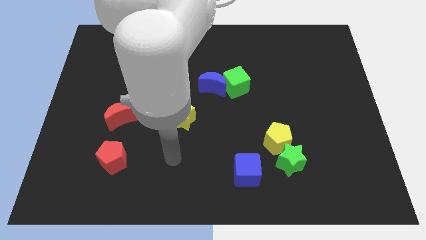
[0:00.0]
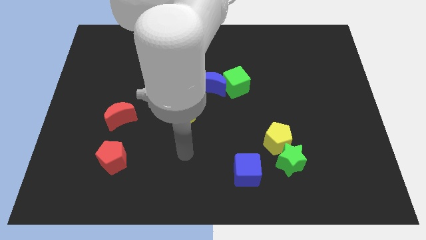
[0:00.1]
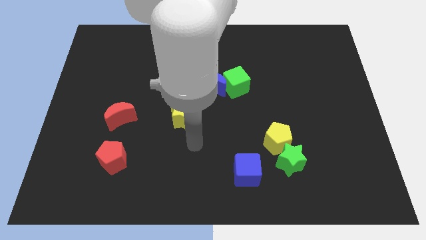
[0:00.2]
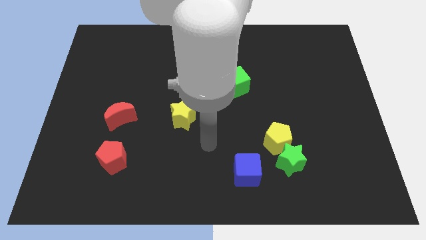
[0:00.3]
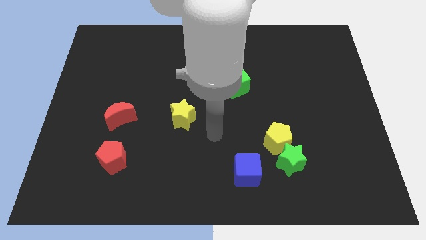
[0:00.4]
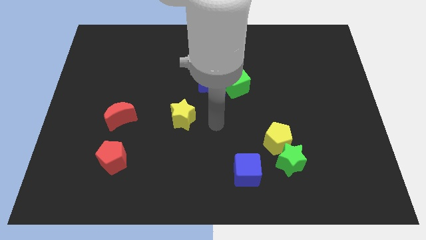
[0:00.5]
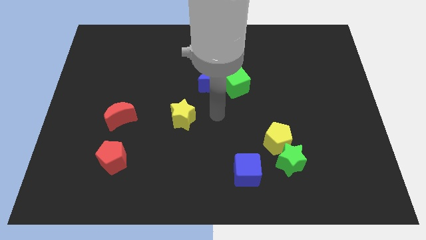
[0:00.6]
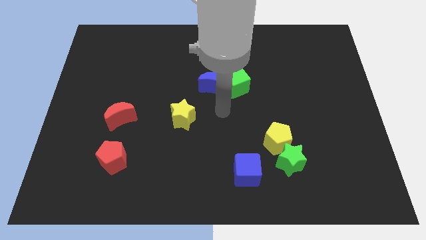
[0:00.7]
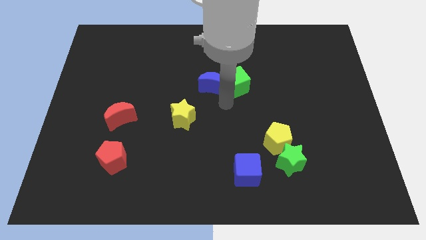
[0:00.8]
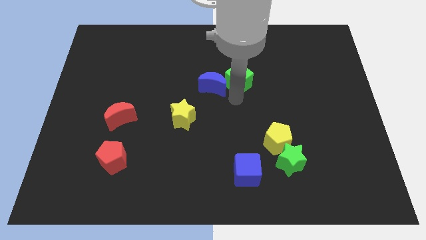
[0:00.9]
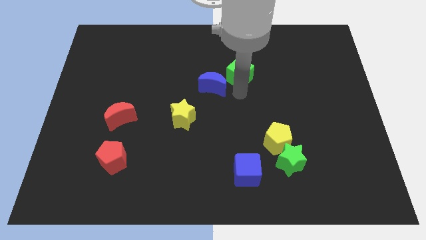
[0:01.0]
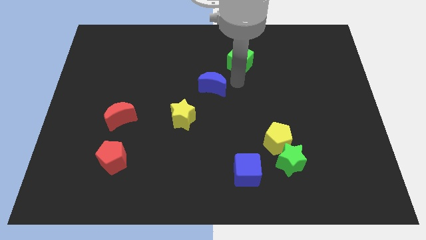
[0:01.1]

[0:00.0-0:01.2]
separate the blue moon from the green cube

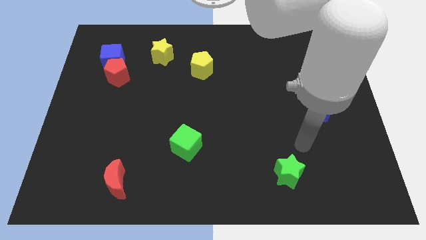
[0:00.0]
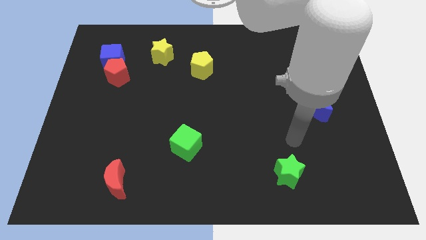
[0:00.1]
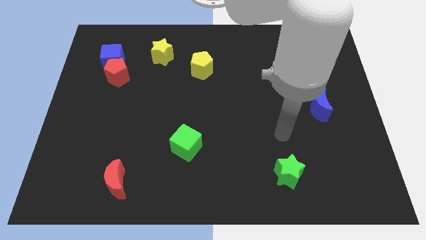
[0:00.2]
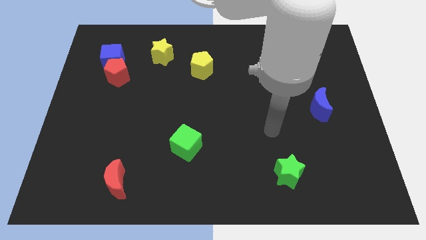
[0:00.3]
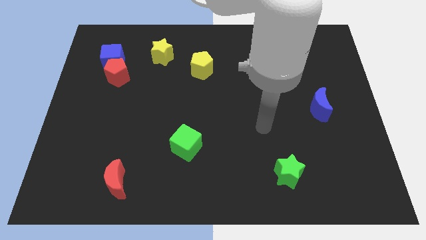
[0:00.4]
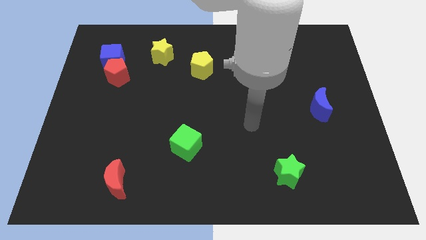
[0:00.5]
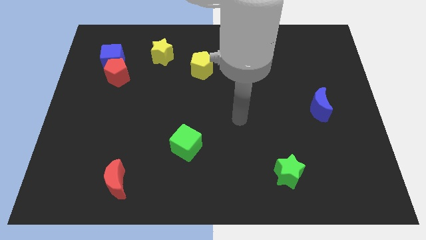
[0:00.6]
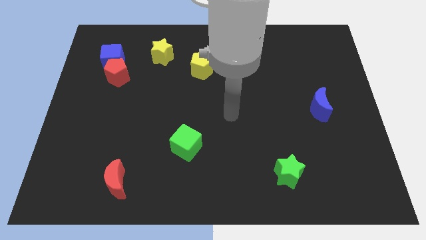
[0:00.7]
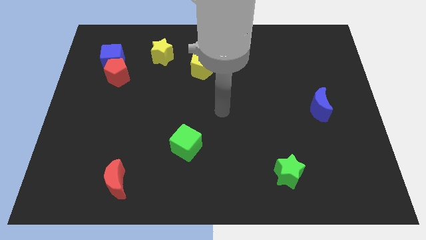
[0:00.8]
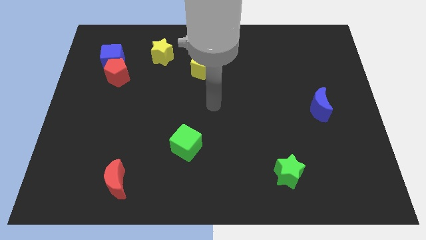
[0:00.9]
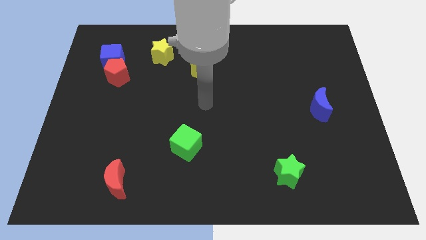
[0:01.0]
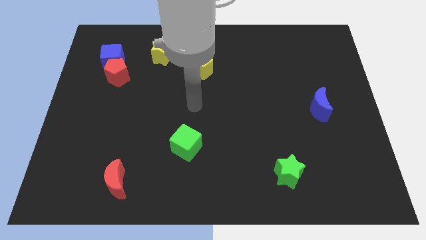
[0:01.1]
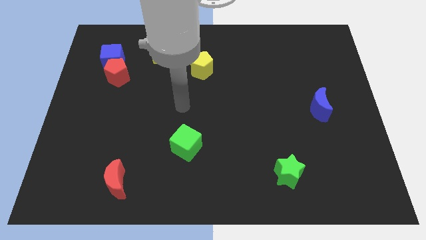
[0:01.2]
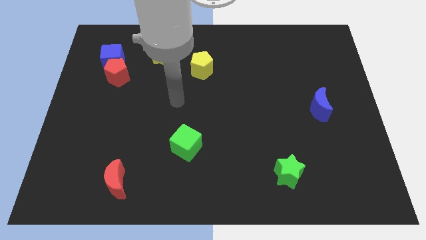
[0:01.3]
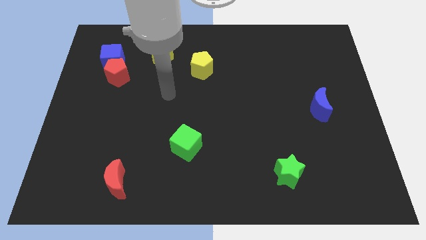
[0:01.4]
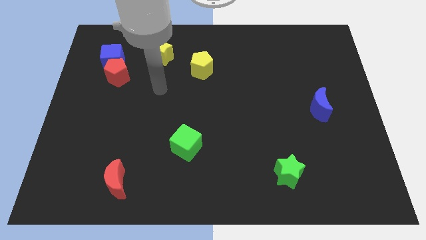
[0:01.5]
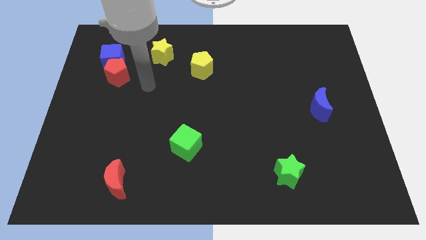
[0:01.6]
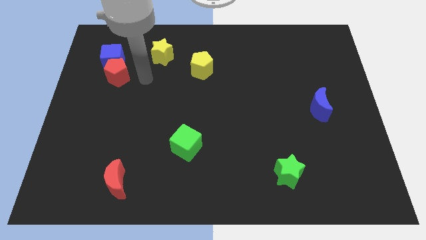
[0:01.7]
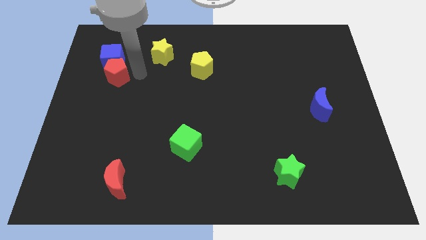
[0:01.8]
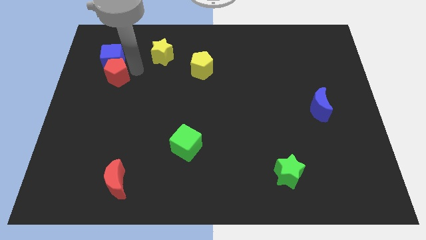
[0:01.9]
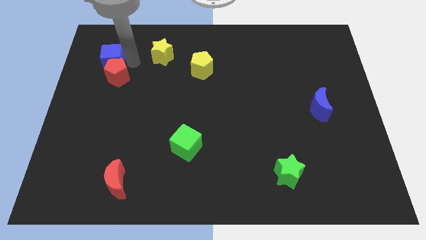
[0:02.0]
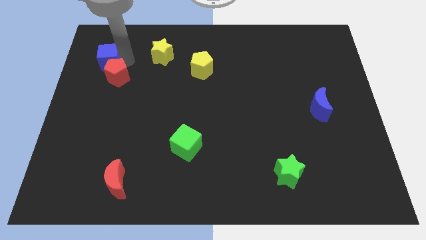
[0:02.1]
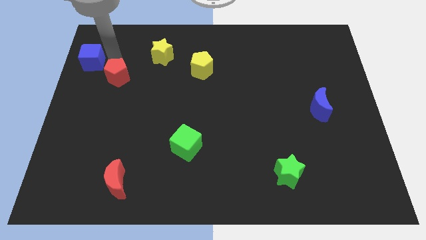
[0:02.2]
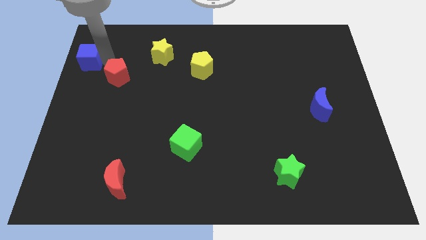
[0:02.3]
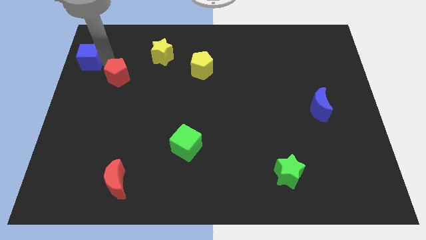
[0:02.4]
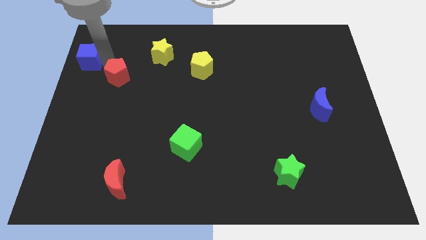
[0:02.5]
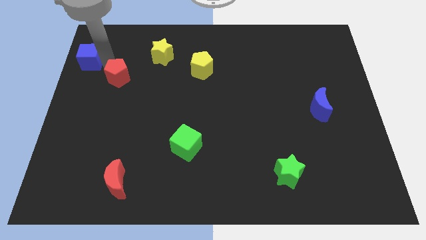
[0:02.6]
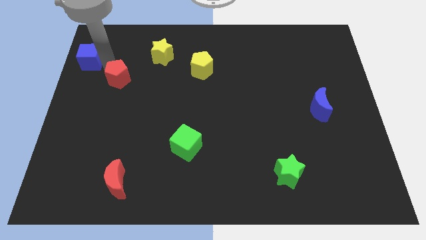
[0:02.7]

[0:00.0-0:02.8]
move the red pentagon away from the blue cube

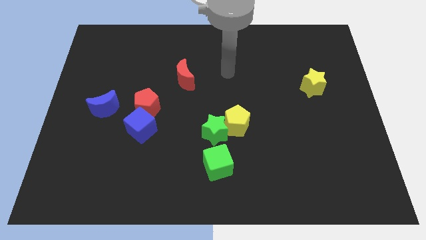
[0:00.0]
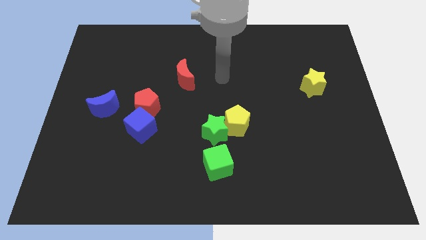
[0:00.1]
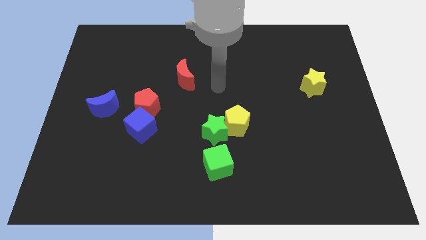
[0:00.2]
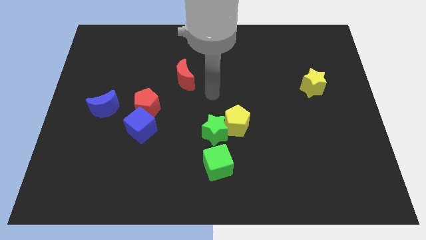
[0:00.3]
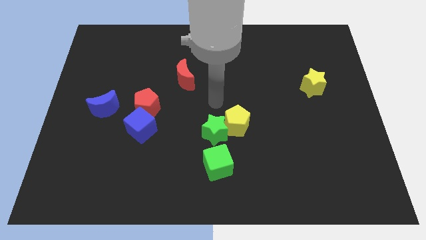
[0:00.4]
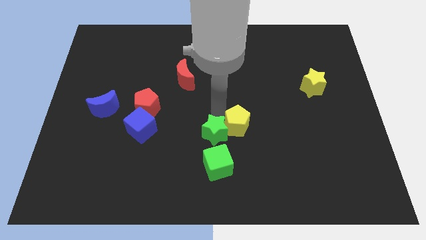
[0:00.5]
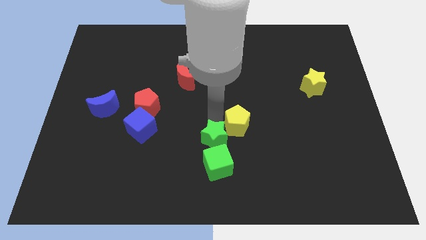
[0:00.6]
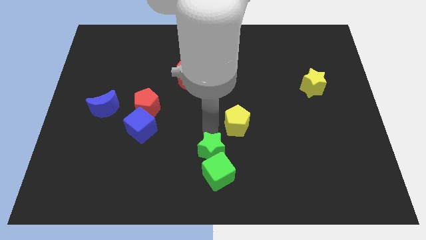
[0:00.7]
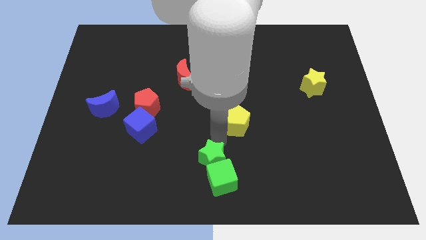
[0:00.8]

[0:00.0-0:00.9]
pull the yellow pentagon apart from the green star

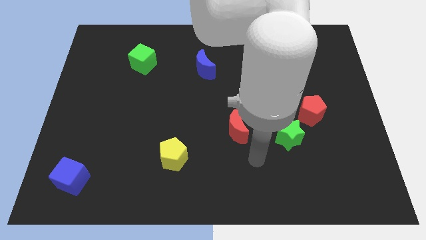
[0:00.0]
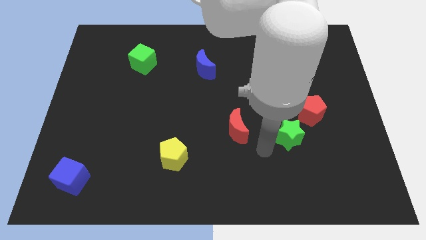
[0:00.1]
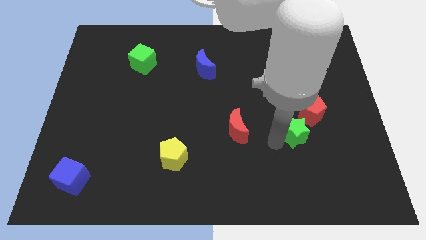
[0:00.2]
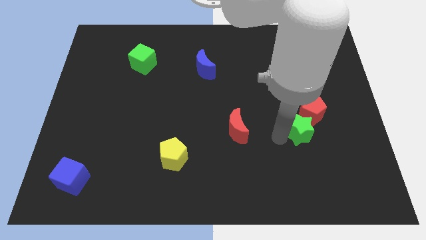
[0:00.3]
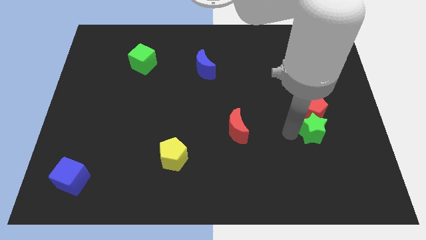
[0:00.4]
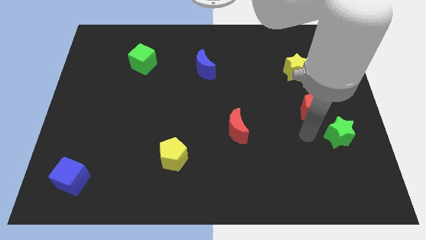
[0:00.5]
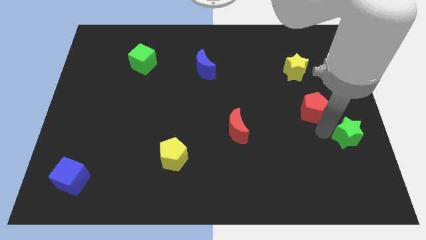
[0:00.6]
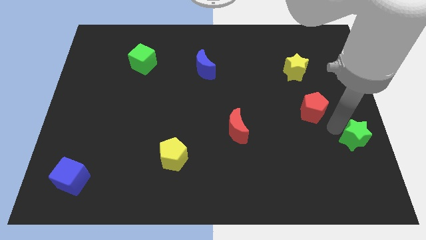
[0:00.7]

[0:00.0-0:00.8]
separate the red pentagon from the green star

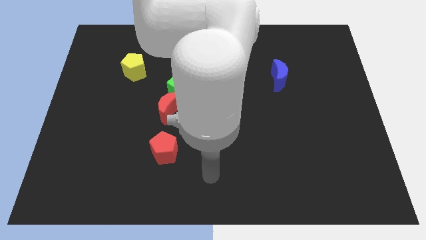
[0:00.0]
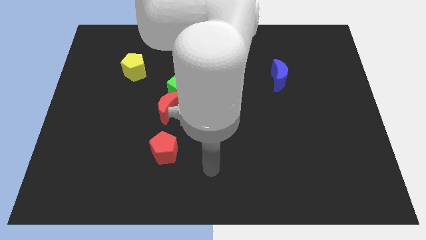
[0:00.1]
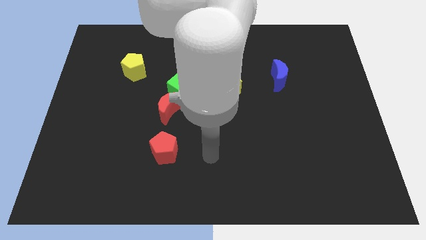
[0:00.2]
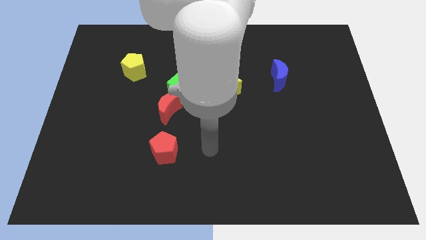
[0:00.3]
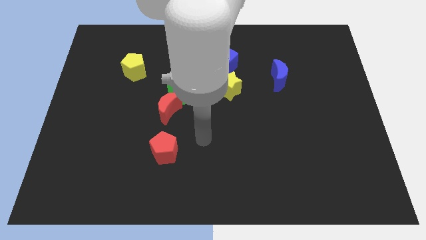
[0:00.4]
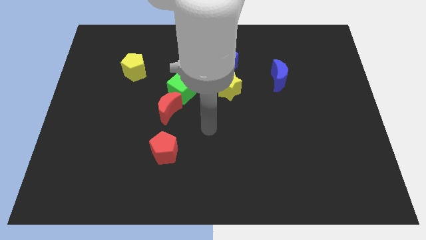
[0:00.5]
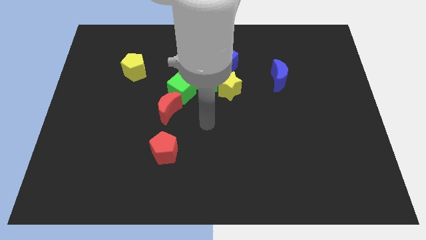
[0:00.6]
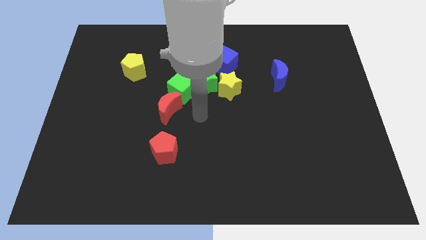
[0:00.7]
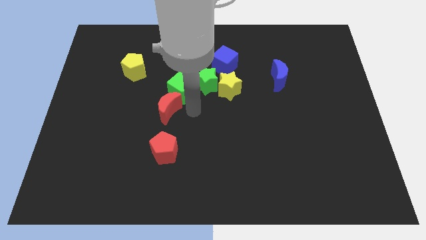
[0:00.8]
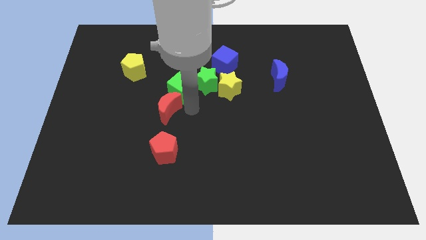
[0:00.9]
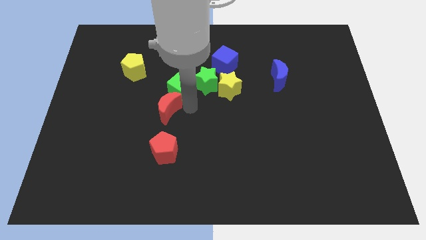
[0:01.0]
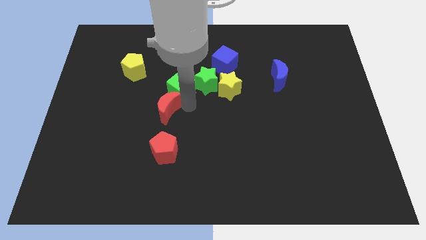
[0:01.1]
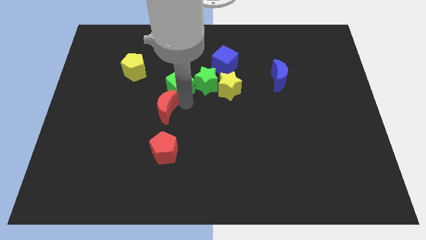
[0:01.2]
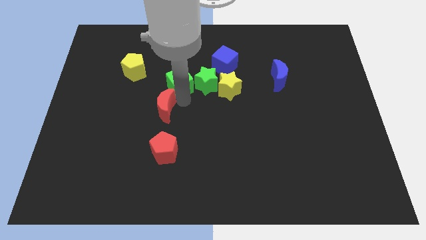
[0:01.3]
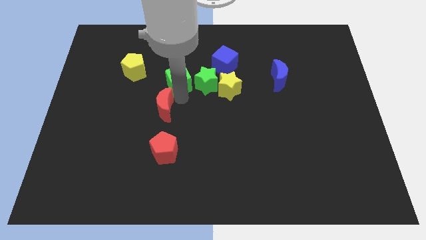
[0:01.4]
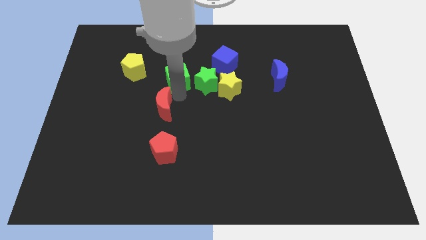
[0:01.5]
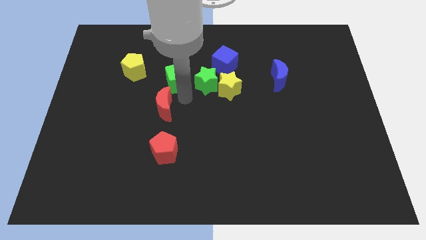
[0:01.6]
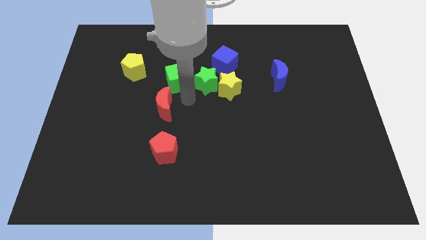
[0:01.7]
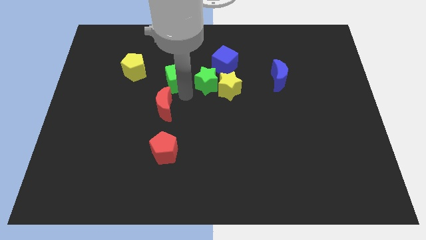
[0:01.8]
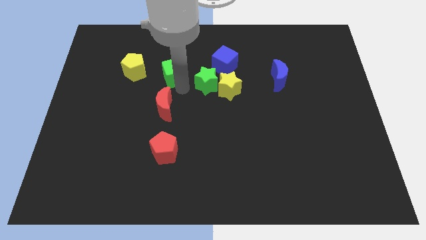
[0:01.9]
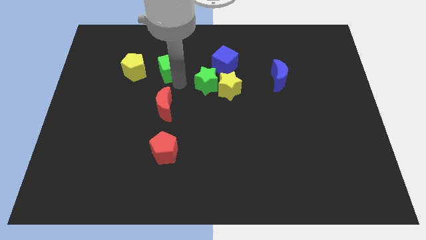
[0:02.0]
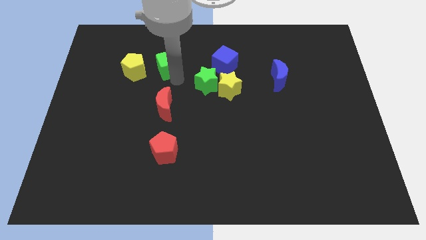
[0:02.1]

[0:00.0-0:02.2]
pull the green cube apart from the green star and red moon

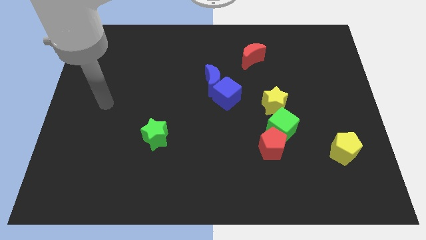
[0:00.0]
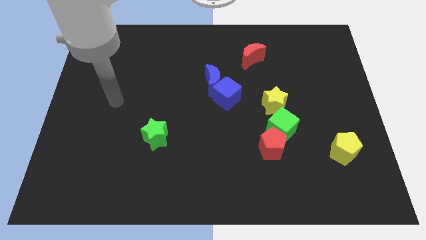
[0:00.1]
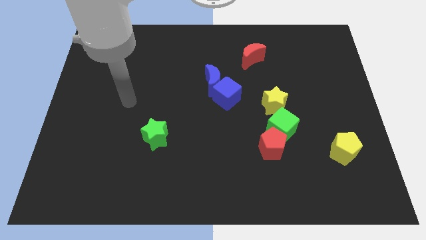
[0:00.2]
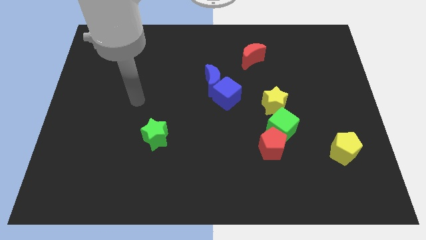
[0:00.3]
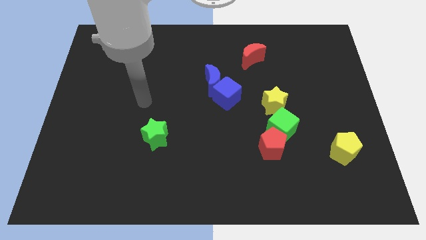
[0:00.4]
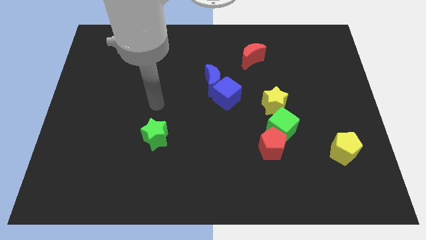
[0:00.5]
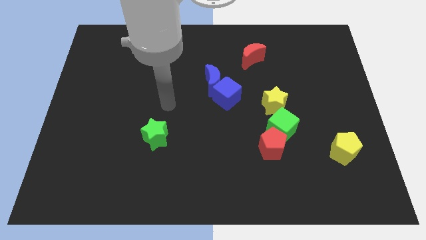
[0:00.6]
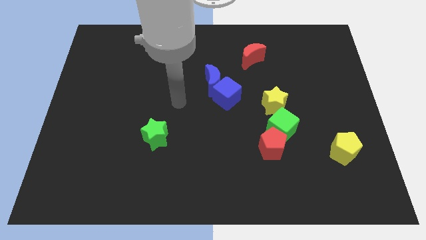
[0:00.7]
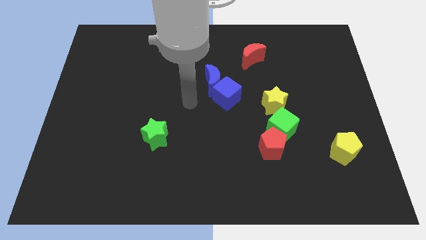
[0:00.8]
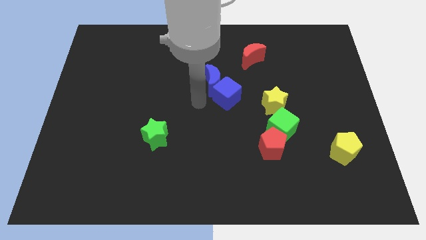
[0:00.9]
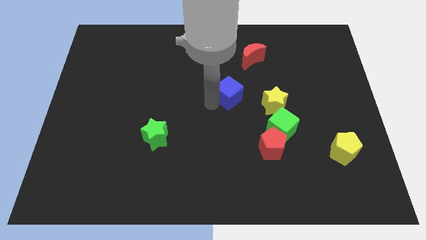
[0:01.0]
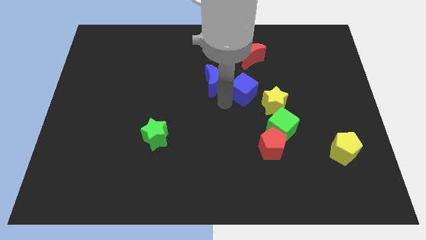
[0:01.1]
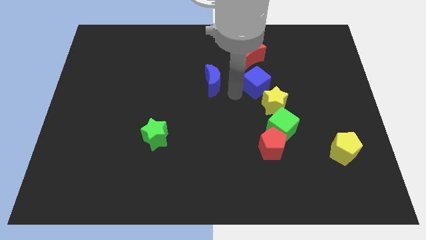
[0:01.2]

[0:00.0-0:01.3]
pull the blue moon apart from the blue cube

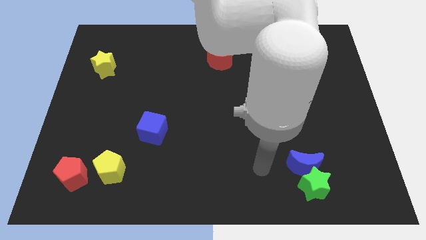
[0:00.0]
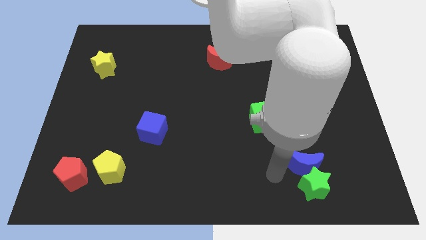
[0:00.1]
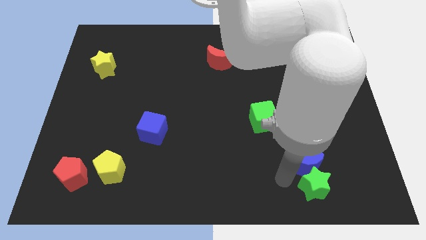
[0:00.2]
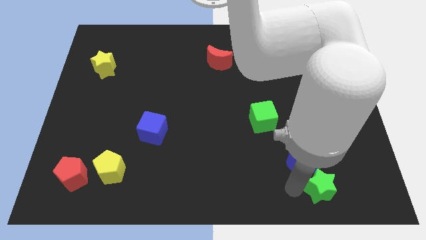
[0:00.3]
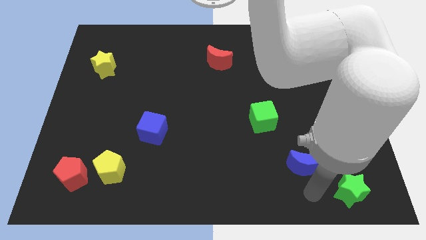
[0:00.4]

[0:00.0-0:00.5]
pull the blue moon apart from the green star
